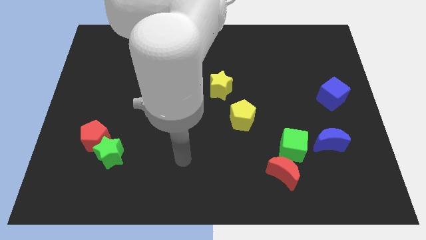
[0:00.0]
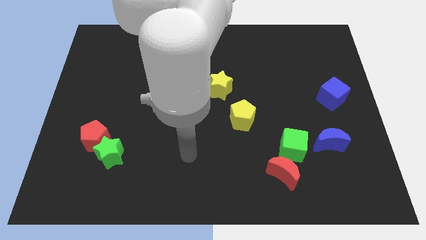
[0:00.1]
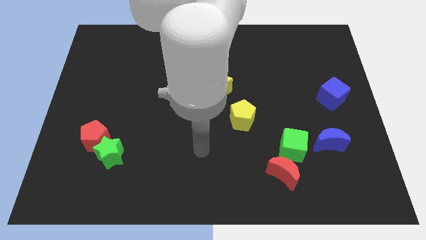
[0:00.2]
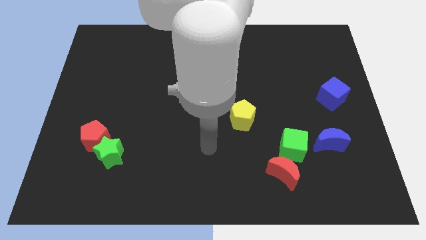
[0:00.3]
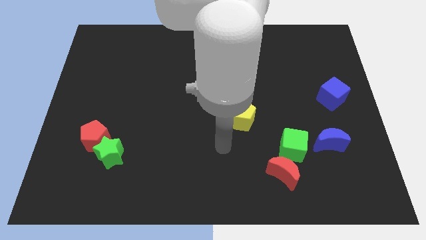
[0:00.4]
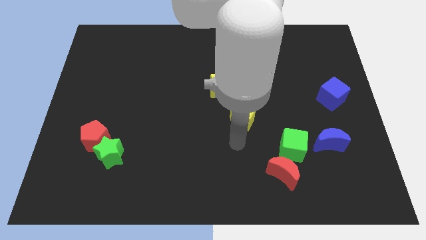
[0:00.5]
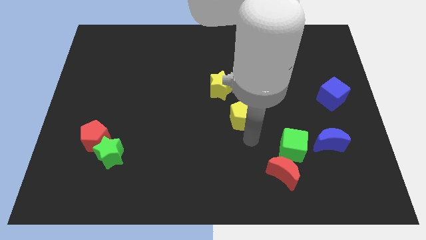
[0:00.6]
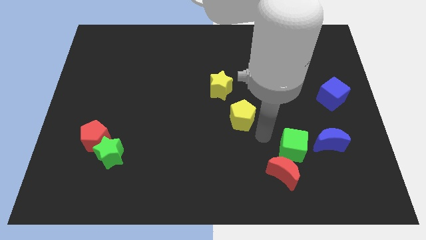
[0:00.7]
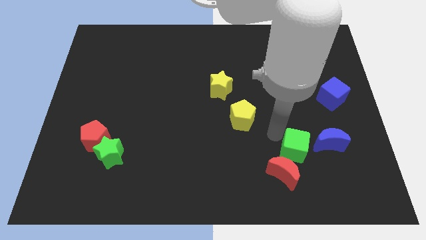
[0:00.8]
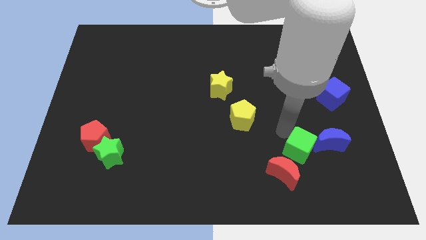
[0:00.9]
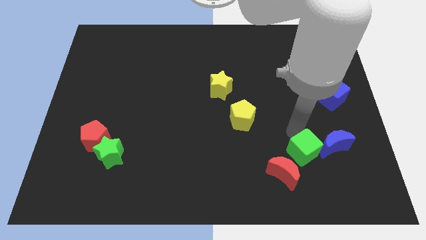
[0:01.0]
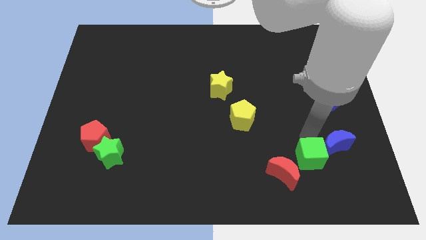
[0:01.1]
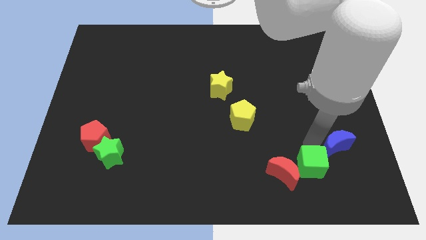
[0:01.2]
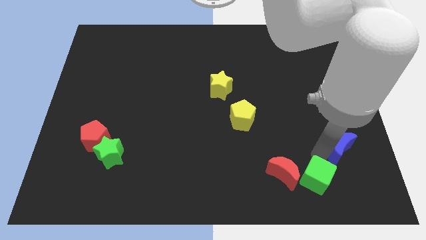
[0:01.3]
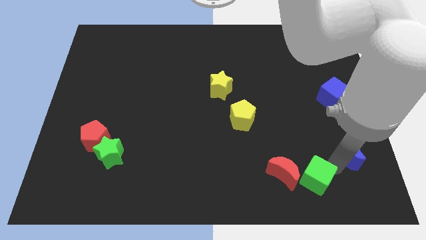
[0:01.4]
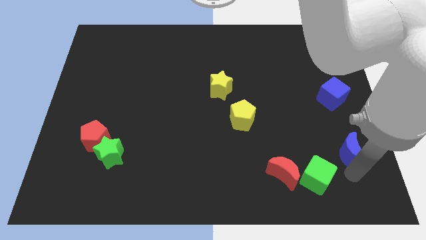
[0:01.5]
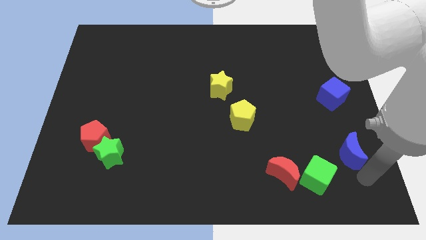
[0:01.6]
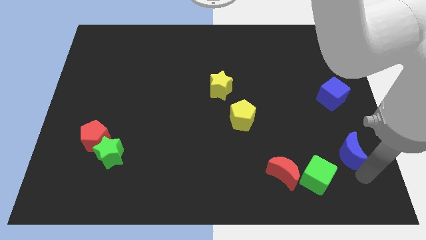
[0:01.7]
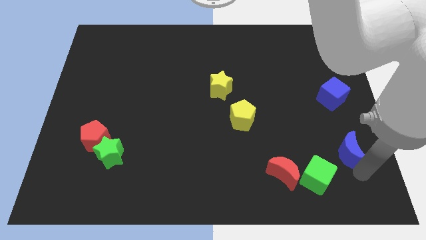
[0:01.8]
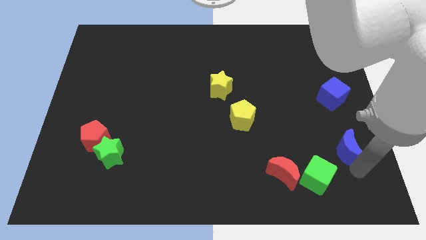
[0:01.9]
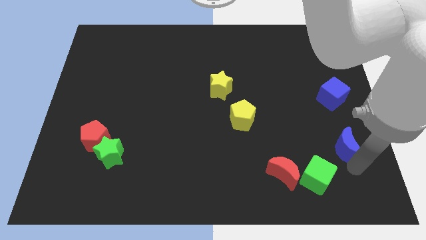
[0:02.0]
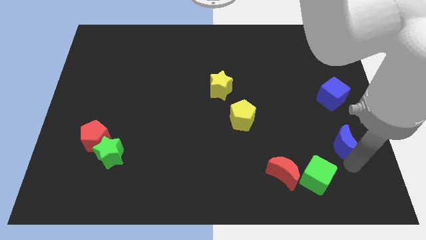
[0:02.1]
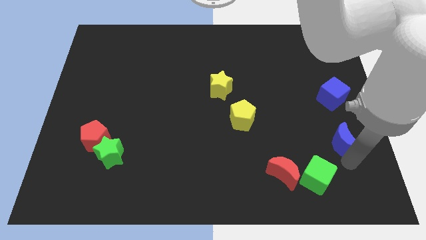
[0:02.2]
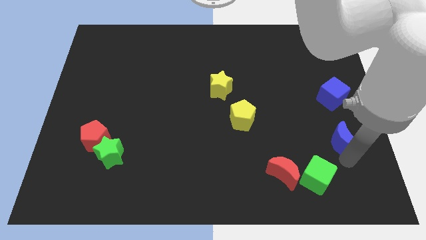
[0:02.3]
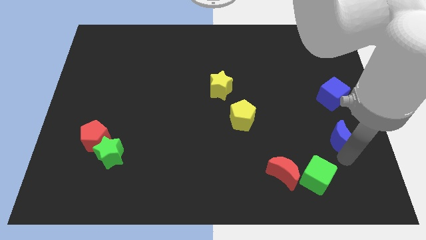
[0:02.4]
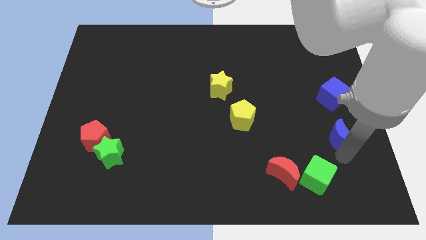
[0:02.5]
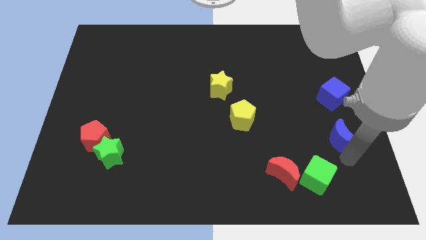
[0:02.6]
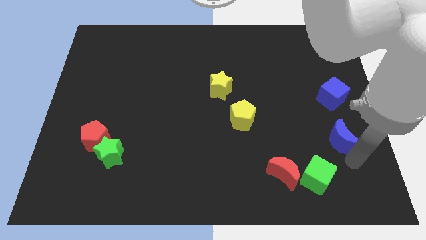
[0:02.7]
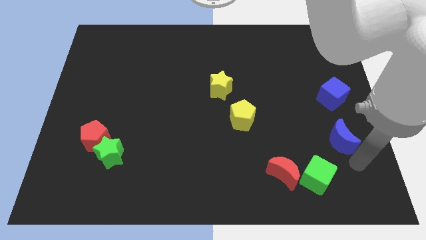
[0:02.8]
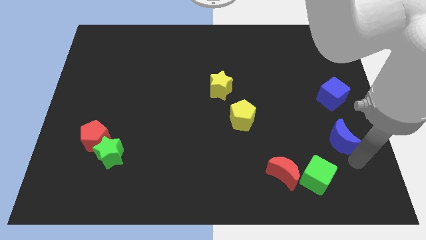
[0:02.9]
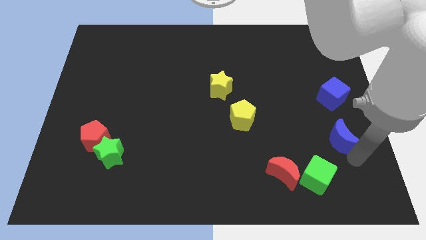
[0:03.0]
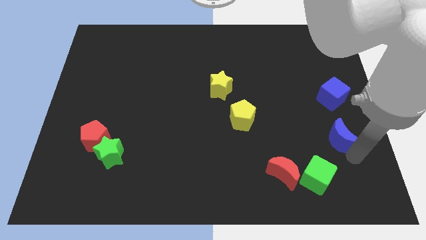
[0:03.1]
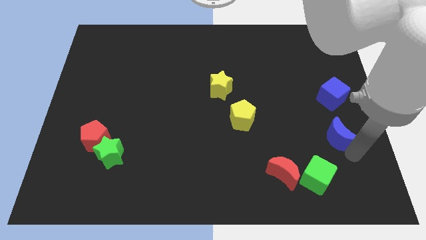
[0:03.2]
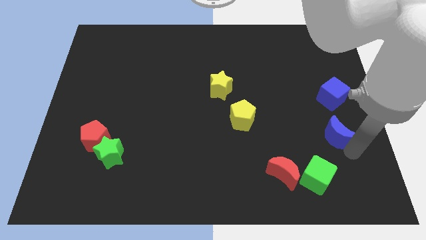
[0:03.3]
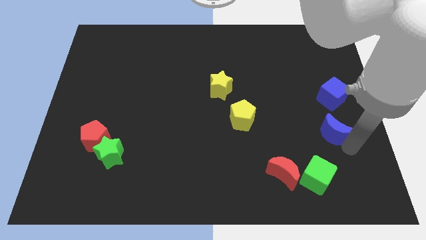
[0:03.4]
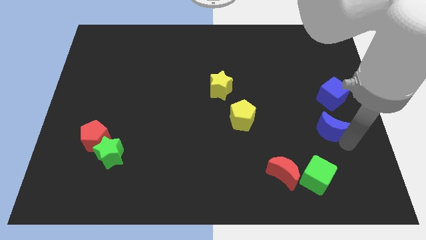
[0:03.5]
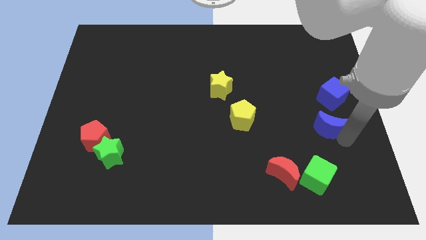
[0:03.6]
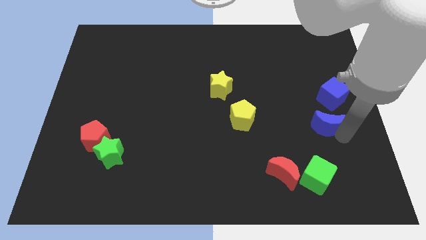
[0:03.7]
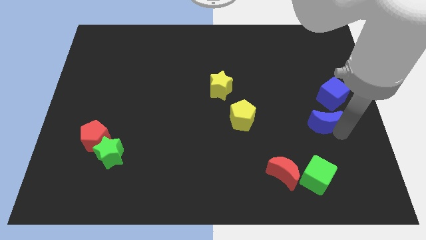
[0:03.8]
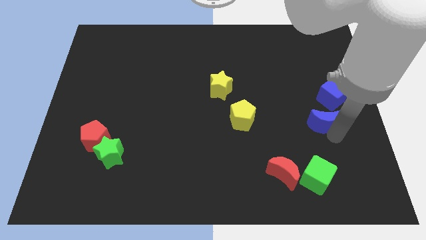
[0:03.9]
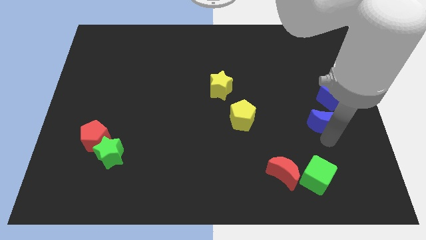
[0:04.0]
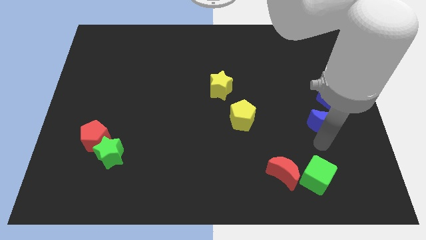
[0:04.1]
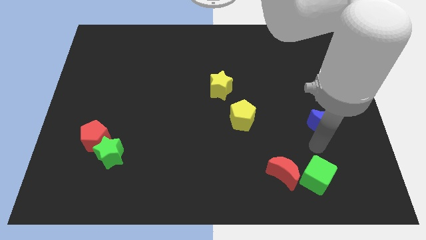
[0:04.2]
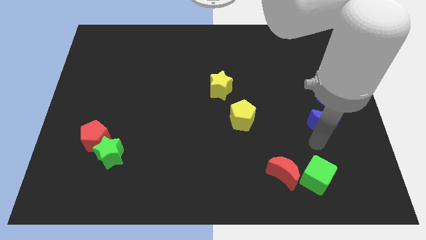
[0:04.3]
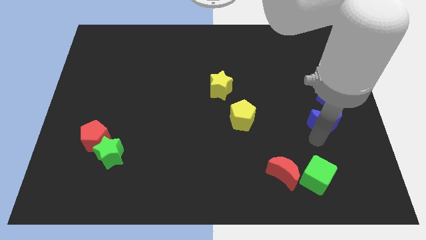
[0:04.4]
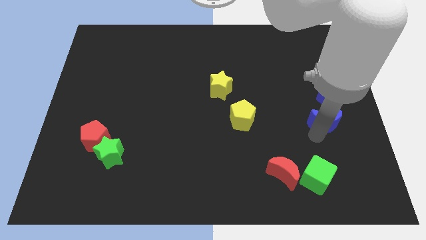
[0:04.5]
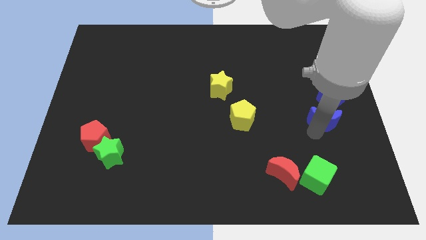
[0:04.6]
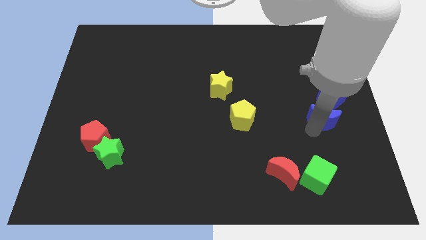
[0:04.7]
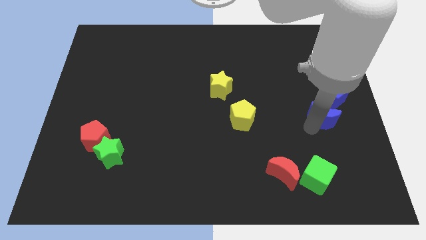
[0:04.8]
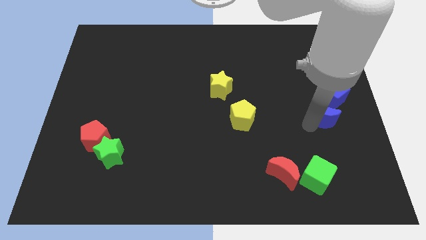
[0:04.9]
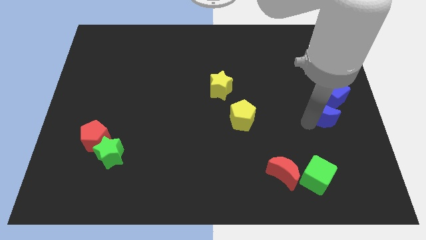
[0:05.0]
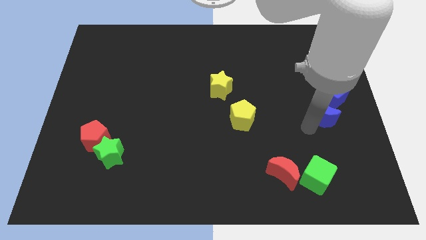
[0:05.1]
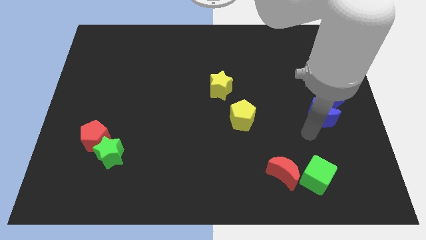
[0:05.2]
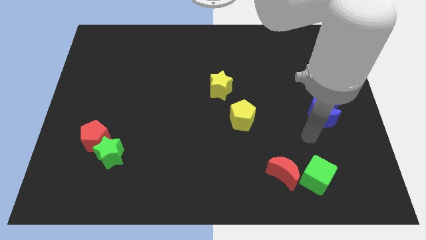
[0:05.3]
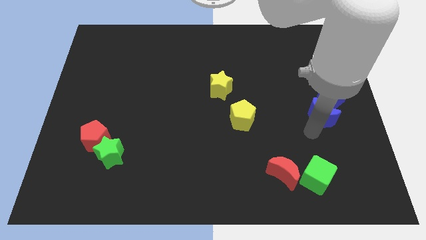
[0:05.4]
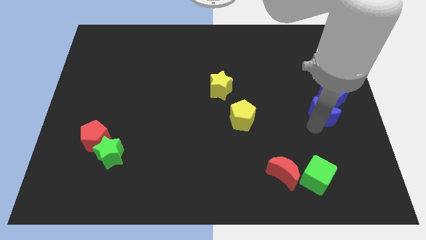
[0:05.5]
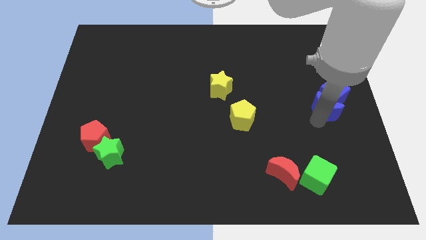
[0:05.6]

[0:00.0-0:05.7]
push the blue moon close to the blue cube

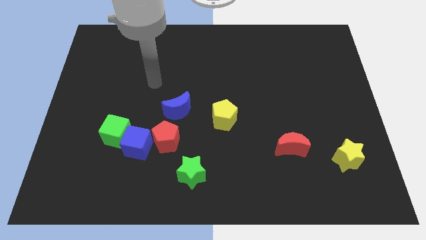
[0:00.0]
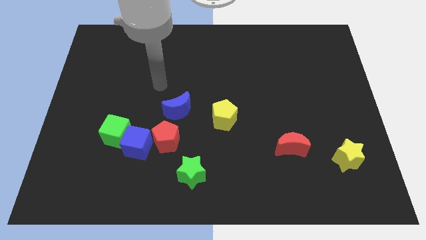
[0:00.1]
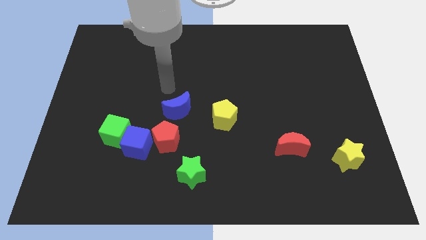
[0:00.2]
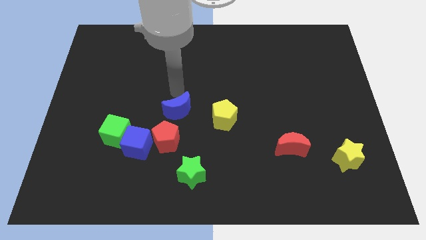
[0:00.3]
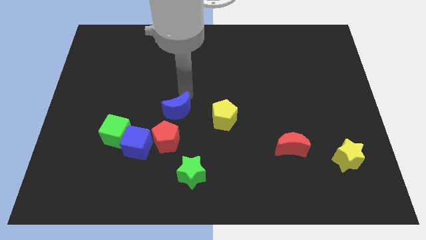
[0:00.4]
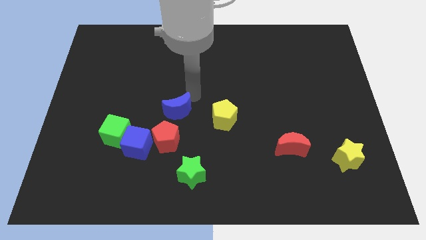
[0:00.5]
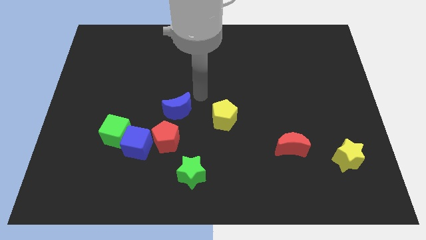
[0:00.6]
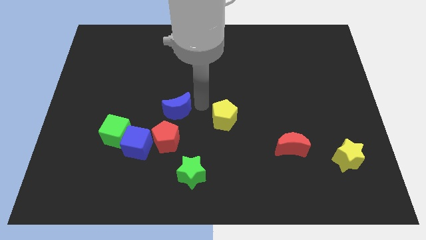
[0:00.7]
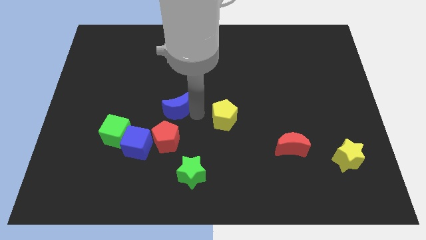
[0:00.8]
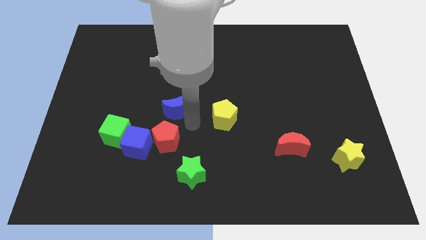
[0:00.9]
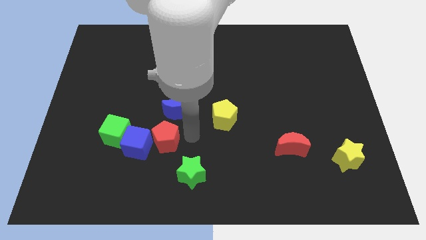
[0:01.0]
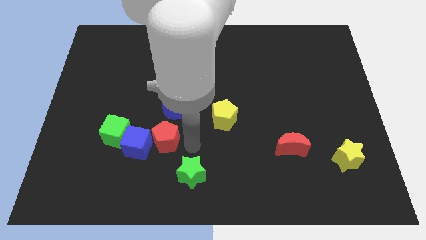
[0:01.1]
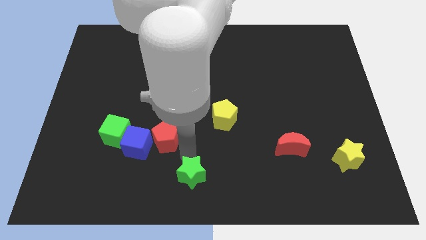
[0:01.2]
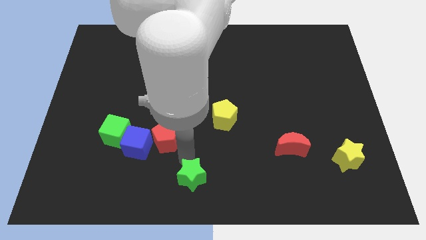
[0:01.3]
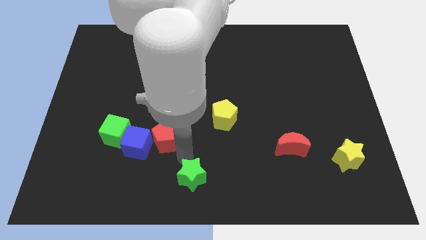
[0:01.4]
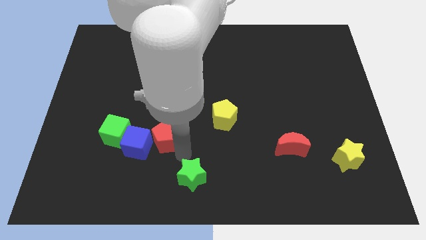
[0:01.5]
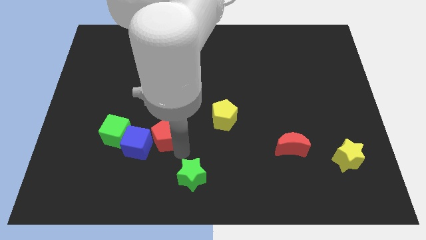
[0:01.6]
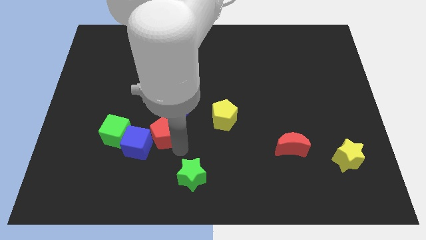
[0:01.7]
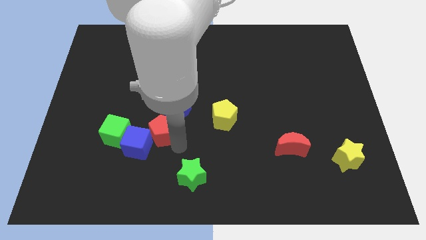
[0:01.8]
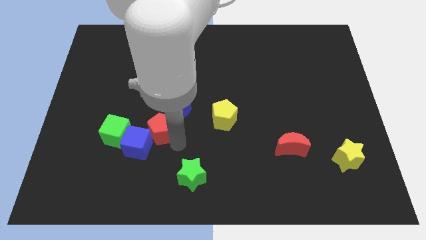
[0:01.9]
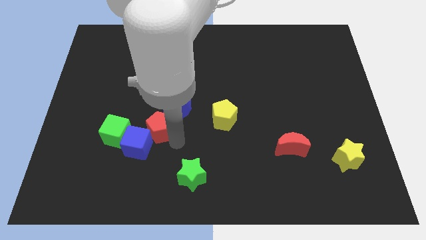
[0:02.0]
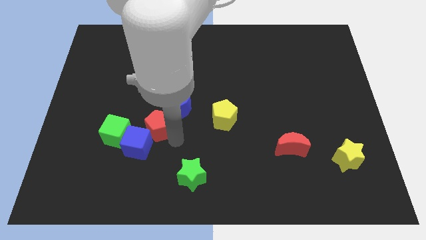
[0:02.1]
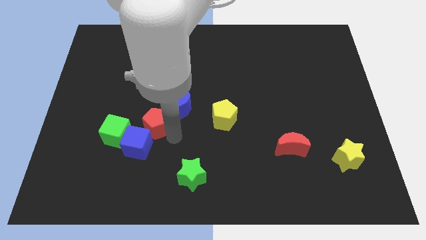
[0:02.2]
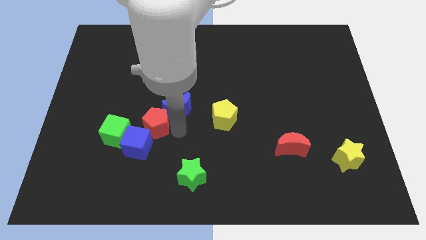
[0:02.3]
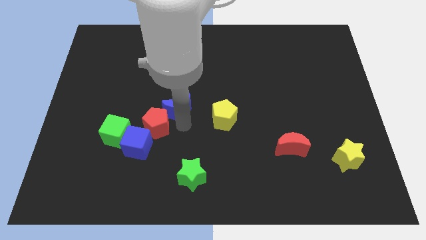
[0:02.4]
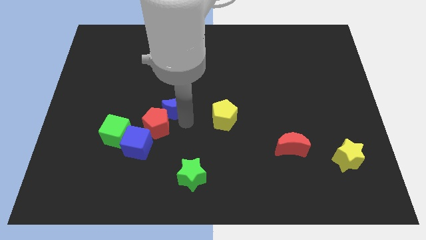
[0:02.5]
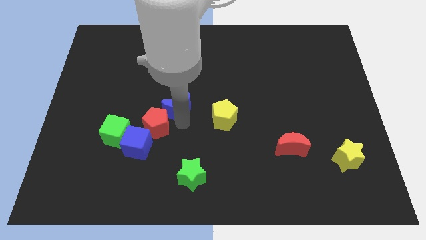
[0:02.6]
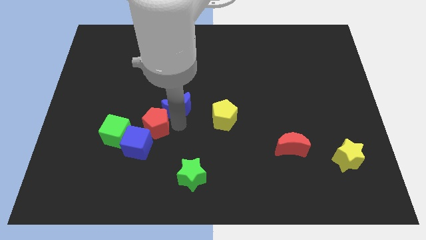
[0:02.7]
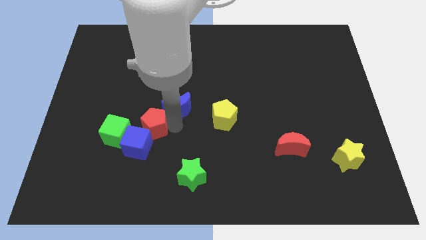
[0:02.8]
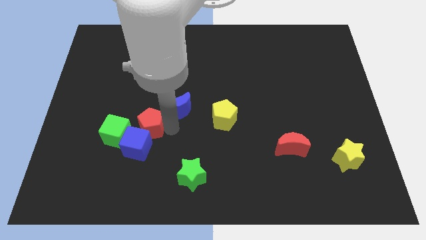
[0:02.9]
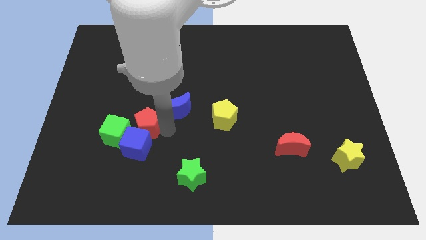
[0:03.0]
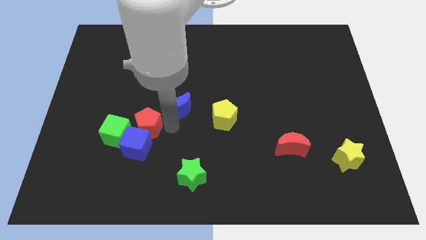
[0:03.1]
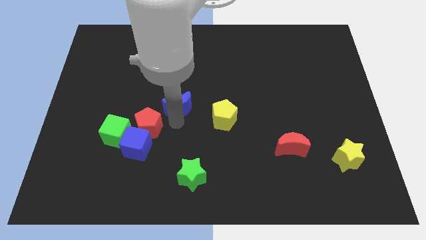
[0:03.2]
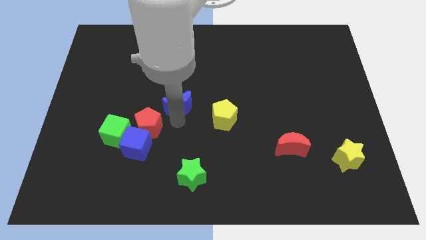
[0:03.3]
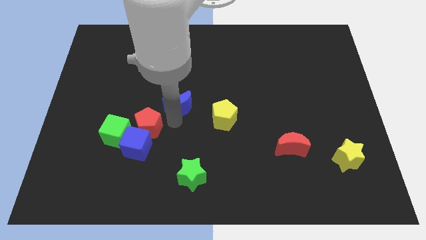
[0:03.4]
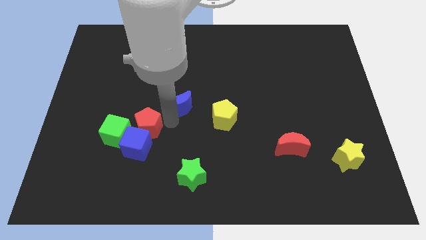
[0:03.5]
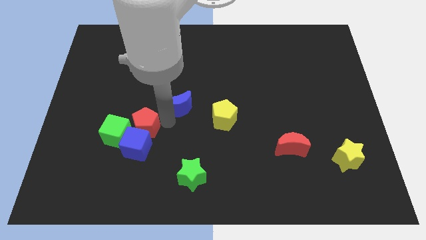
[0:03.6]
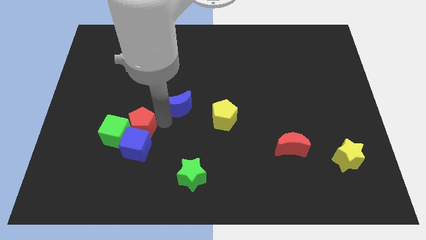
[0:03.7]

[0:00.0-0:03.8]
put the red pentagon next to the green cube
